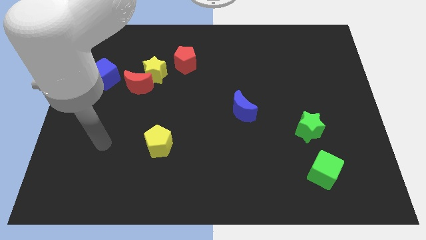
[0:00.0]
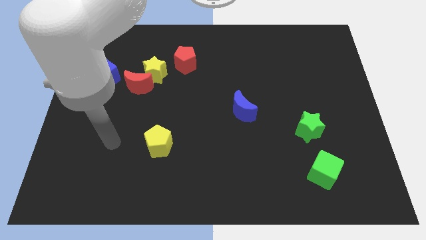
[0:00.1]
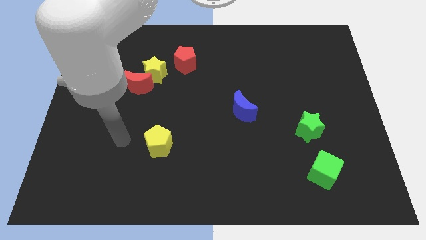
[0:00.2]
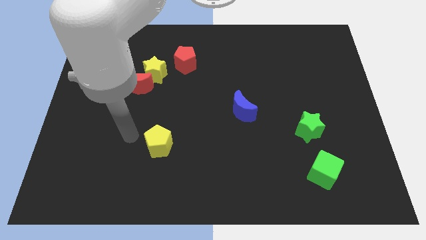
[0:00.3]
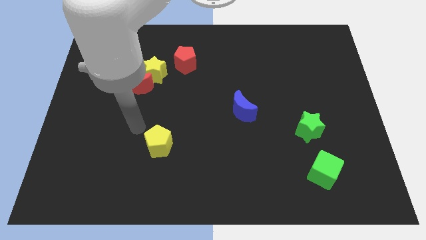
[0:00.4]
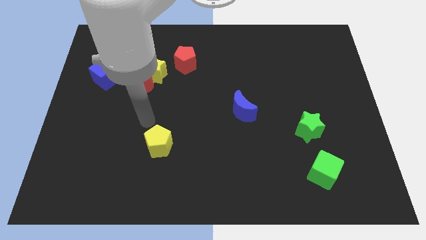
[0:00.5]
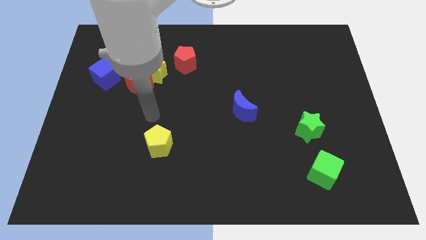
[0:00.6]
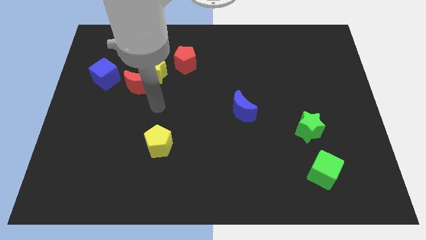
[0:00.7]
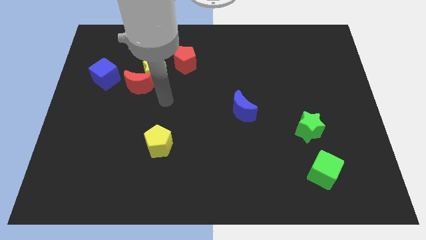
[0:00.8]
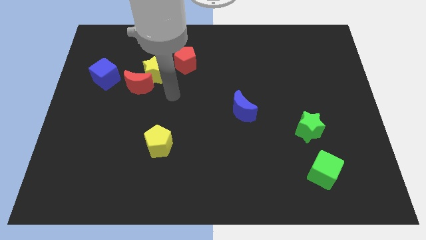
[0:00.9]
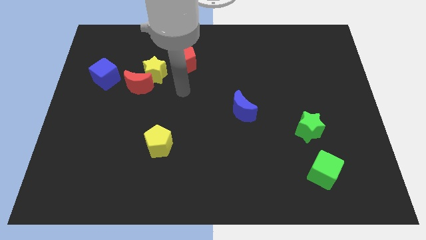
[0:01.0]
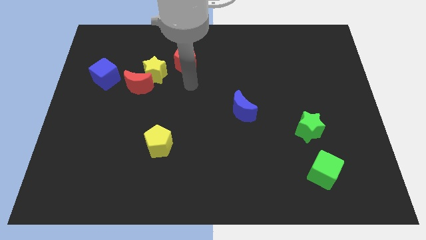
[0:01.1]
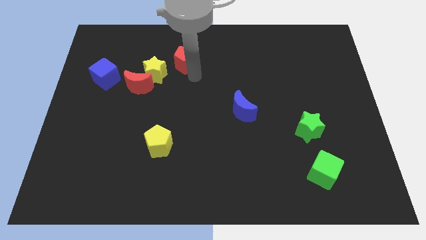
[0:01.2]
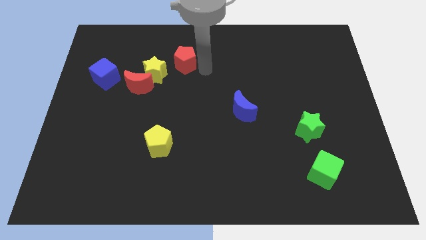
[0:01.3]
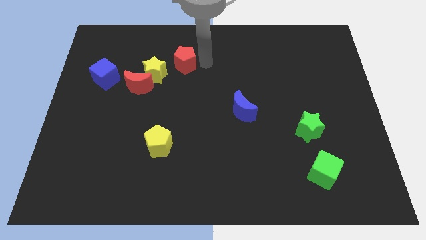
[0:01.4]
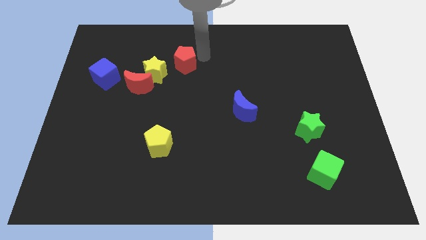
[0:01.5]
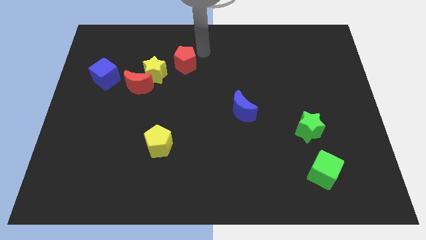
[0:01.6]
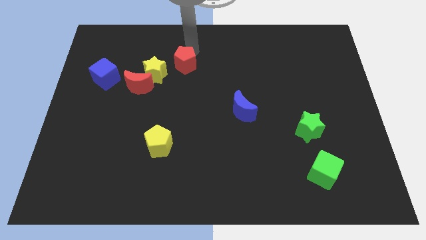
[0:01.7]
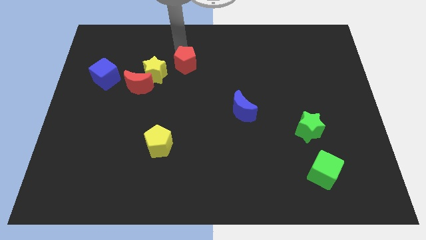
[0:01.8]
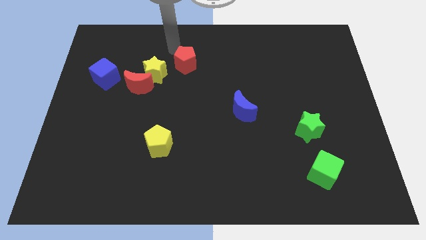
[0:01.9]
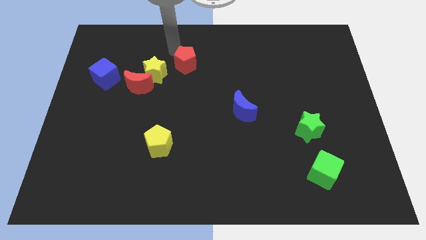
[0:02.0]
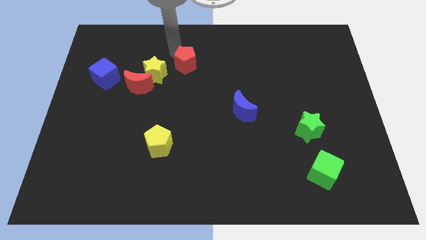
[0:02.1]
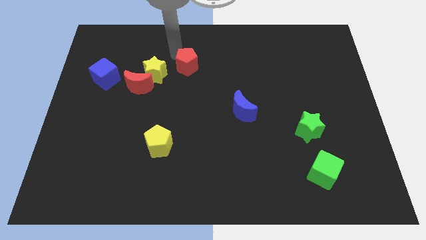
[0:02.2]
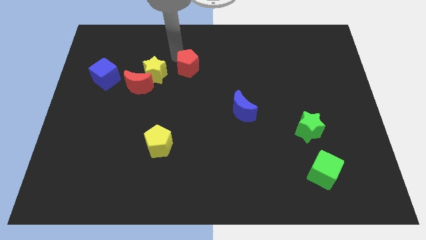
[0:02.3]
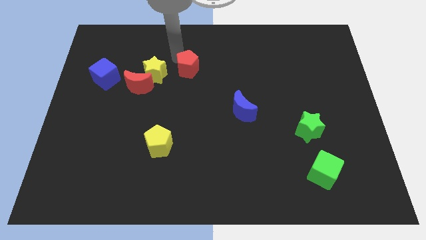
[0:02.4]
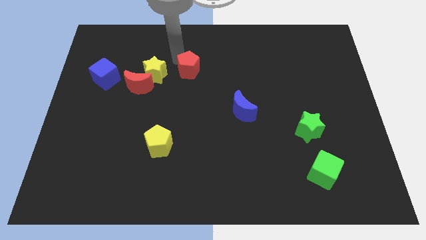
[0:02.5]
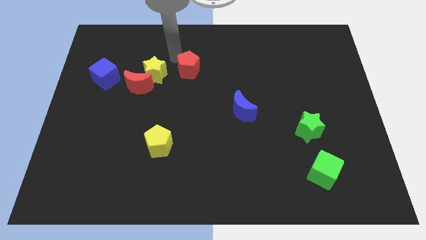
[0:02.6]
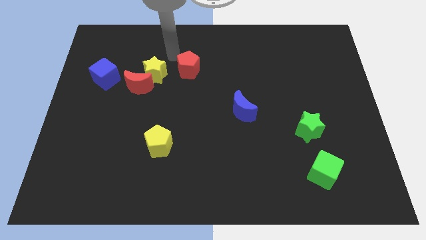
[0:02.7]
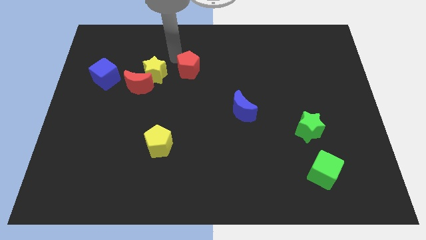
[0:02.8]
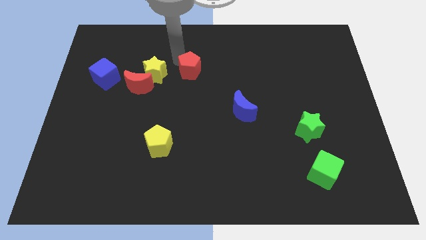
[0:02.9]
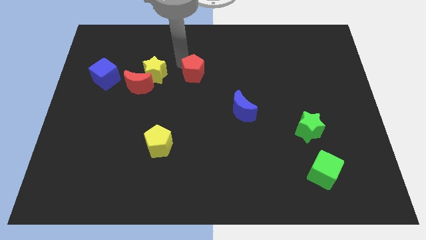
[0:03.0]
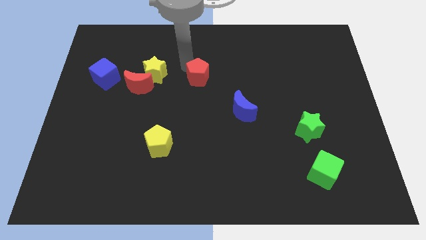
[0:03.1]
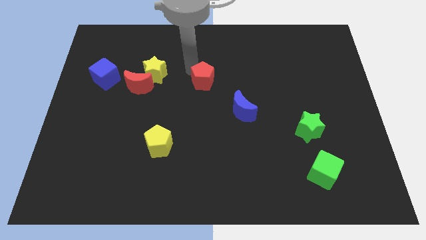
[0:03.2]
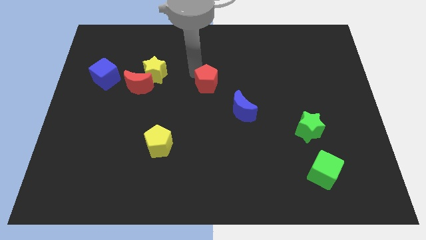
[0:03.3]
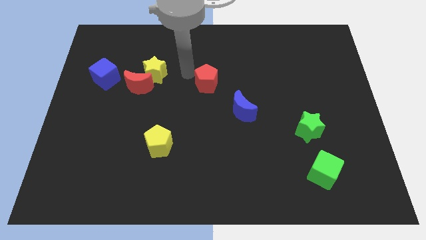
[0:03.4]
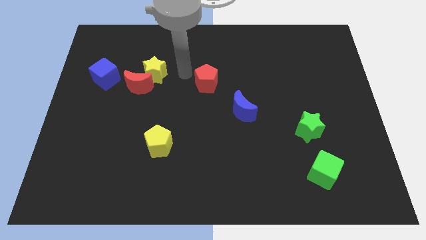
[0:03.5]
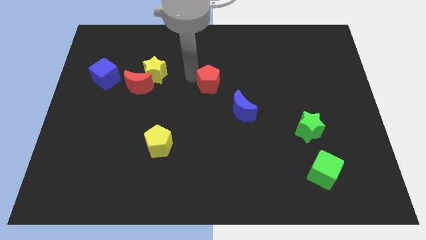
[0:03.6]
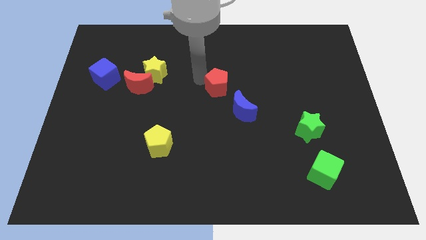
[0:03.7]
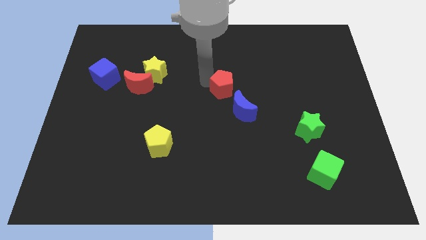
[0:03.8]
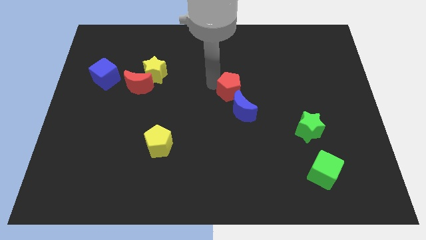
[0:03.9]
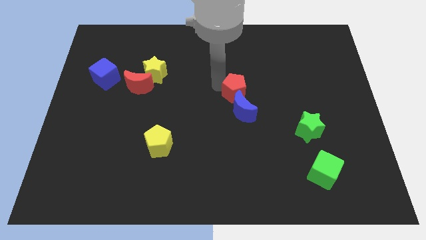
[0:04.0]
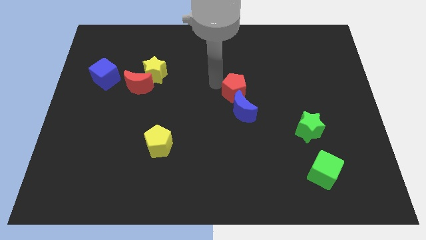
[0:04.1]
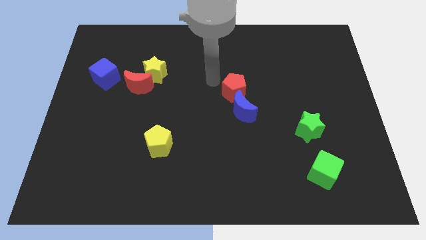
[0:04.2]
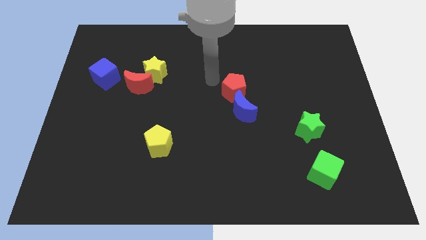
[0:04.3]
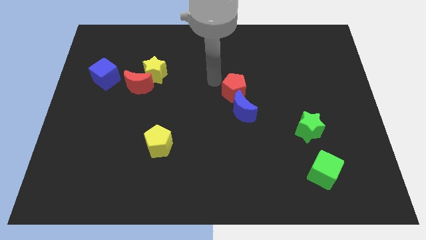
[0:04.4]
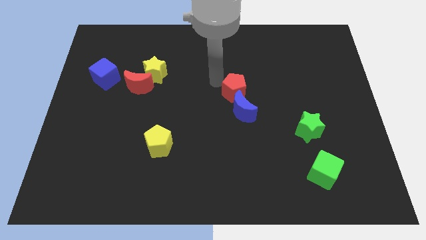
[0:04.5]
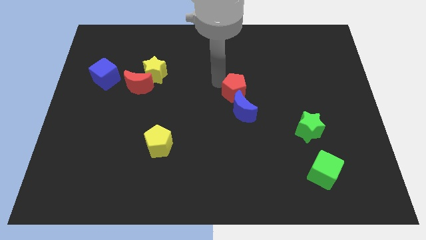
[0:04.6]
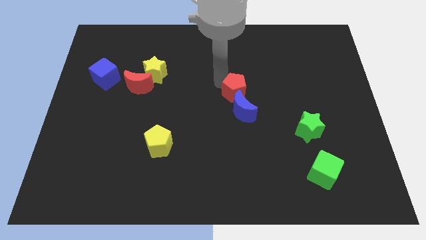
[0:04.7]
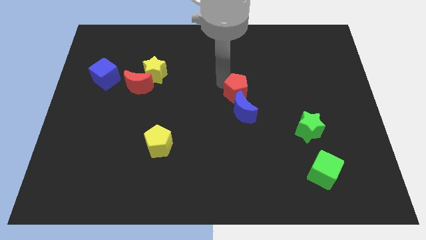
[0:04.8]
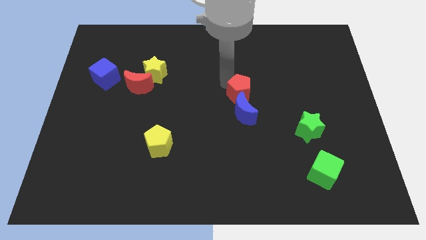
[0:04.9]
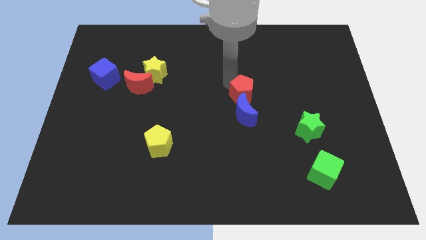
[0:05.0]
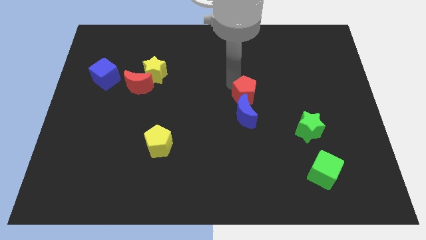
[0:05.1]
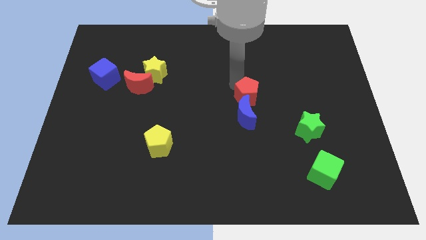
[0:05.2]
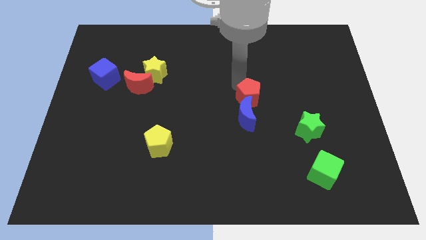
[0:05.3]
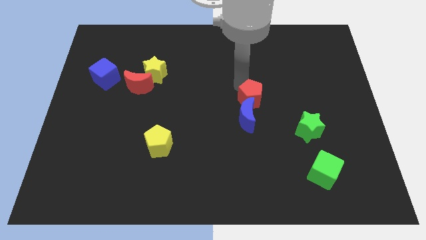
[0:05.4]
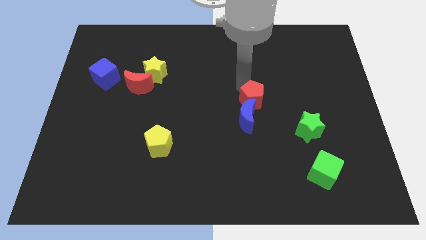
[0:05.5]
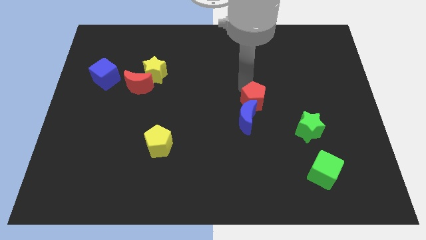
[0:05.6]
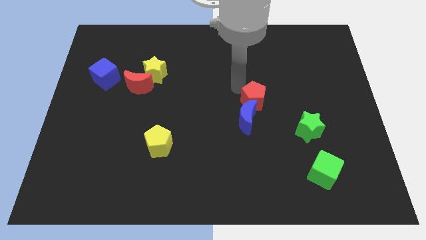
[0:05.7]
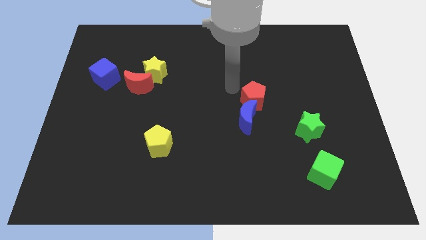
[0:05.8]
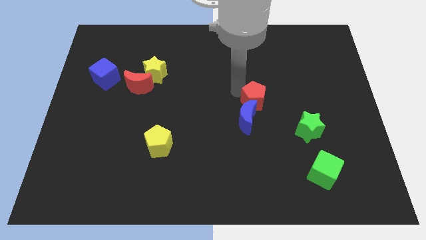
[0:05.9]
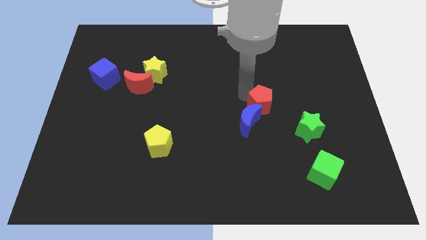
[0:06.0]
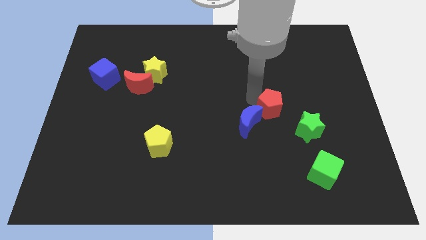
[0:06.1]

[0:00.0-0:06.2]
push the red pentagon to the right side of the blue moon
